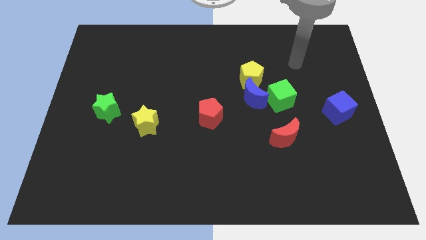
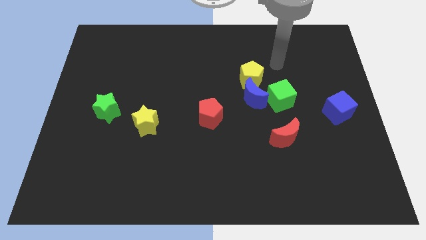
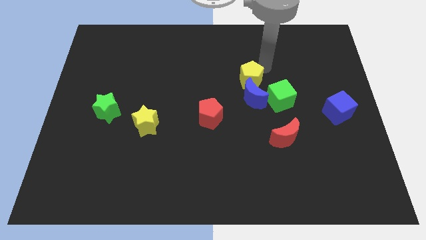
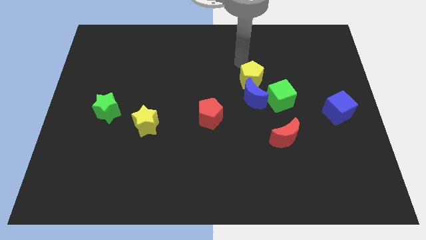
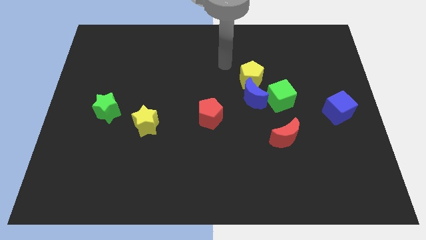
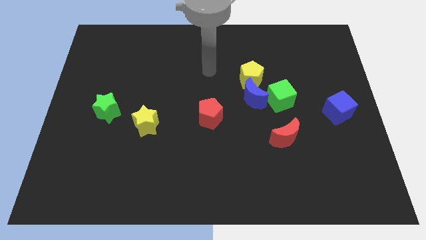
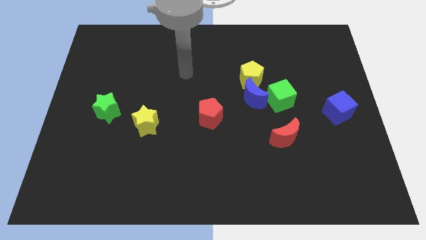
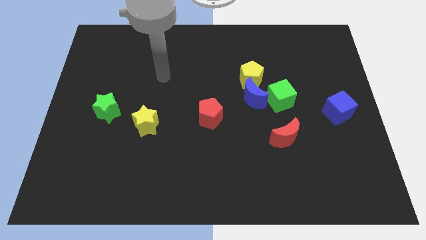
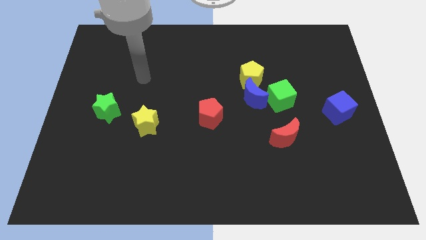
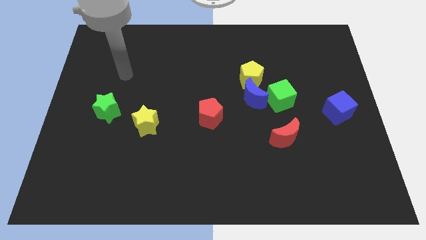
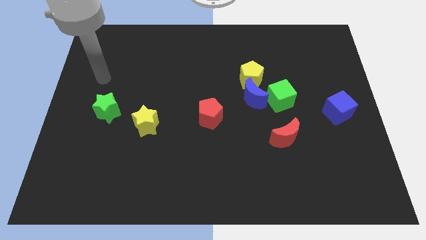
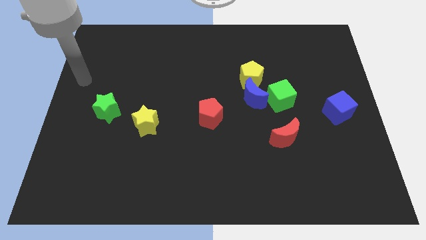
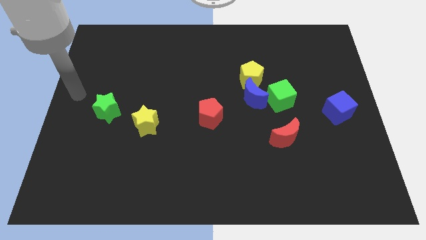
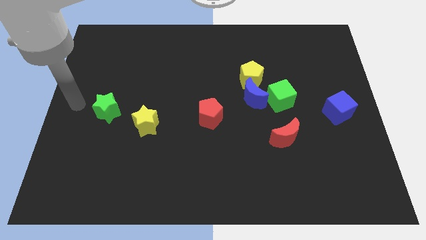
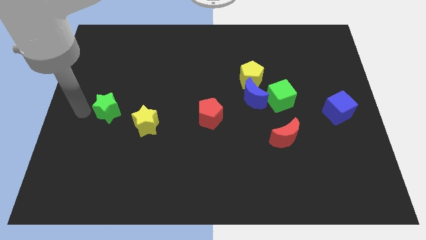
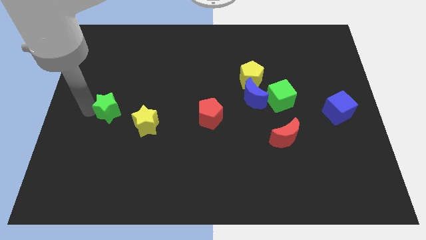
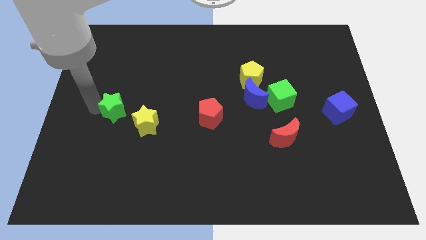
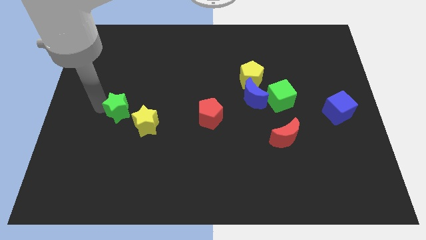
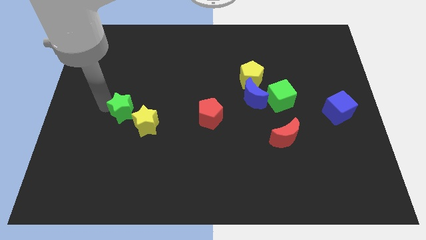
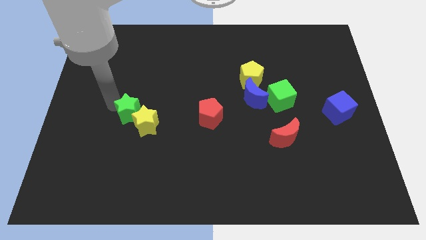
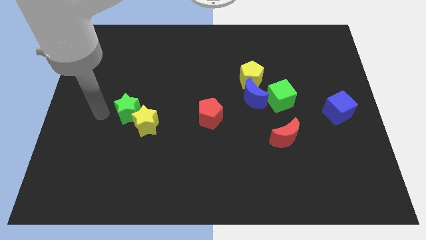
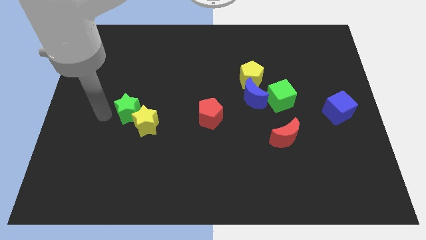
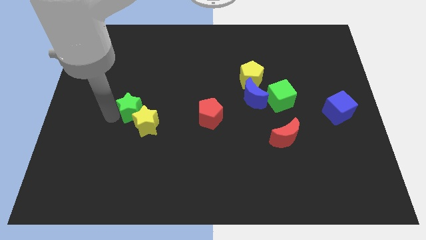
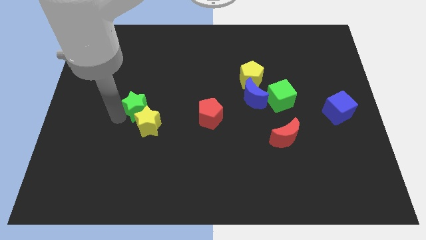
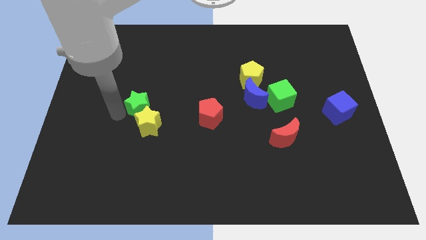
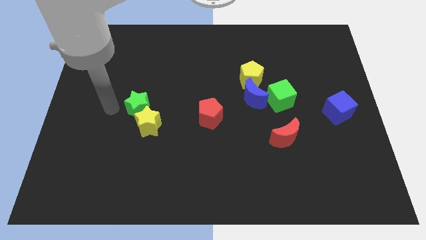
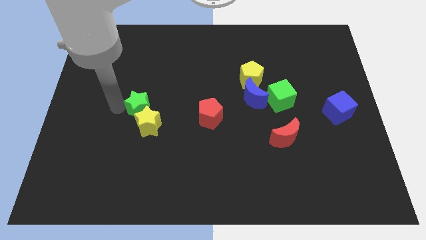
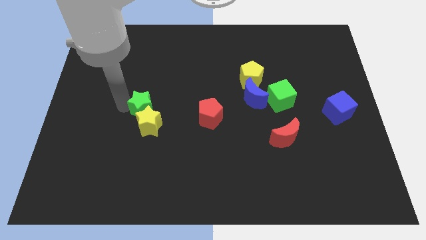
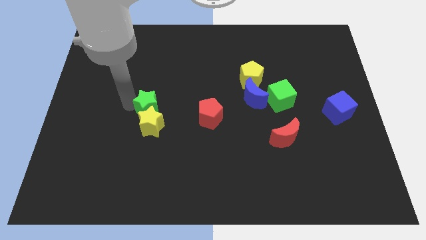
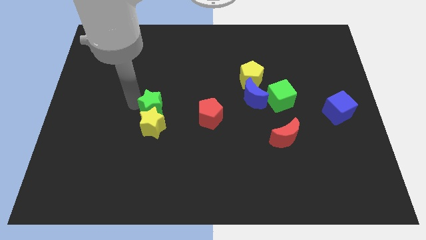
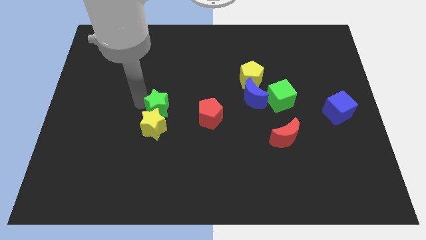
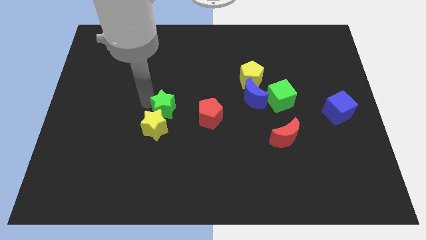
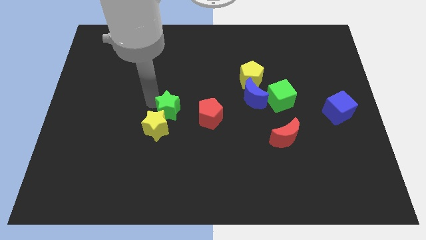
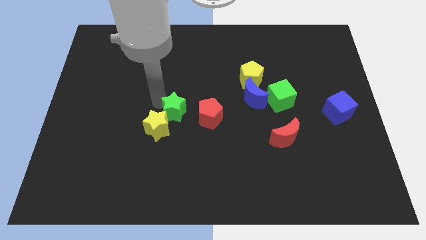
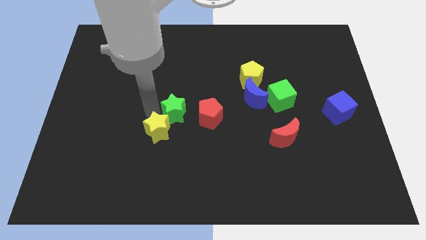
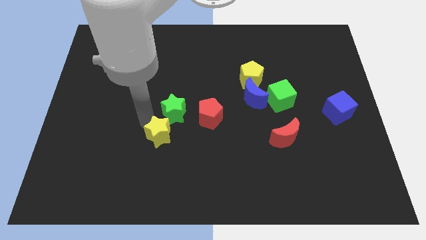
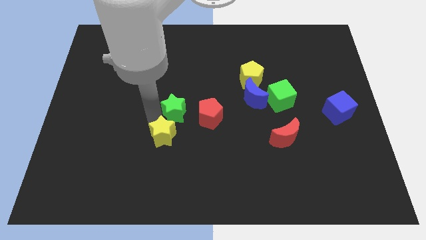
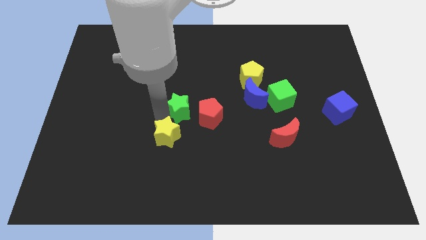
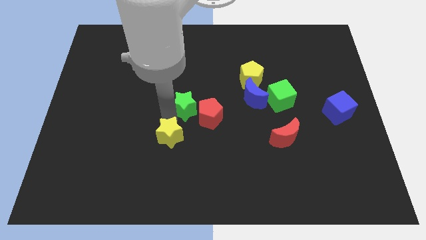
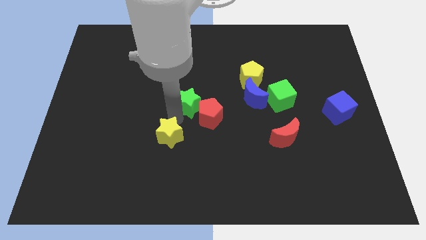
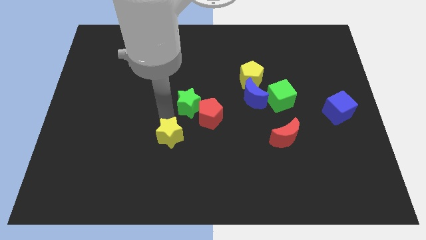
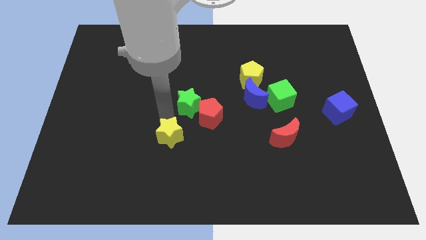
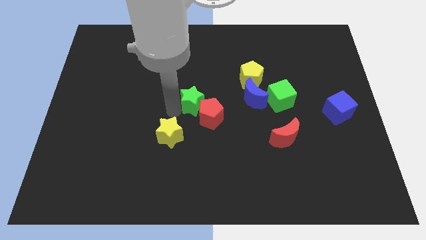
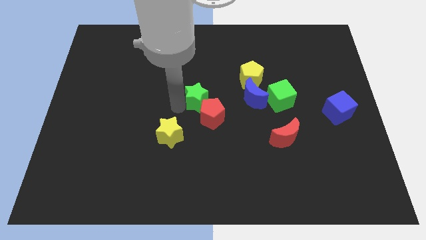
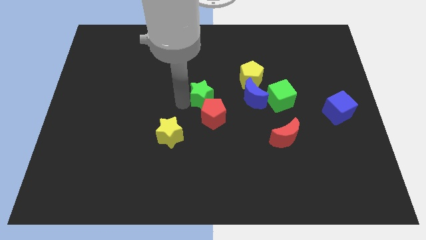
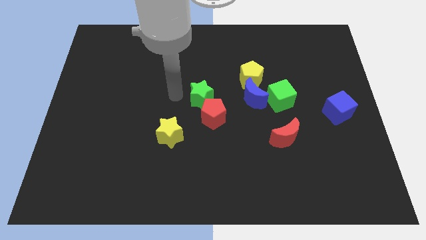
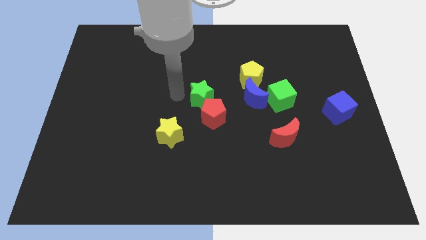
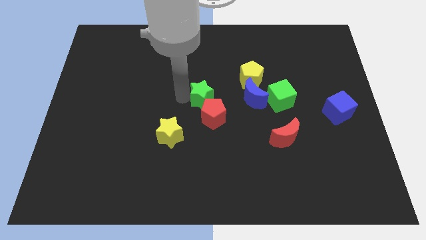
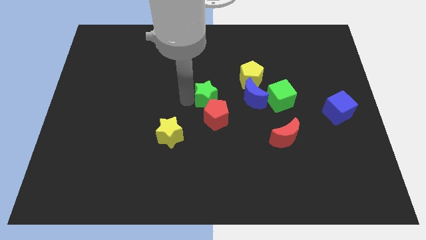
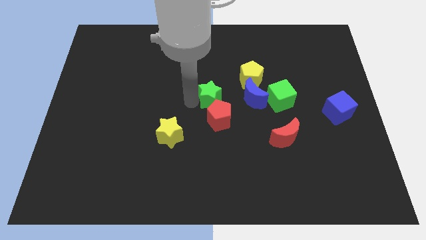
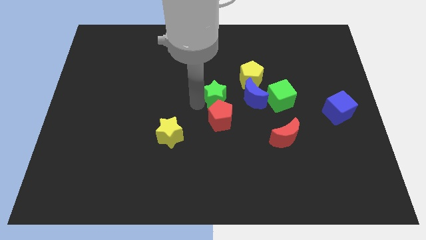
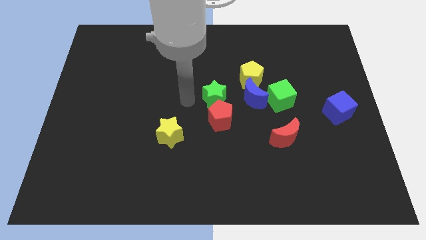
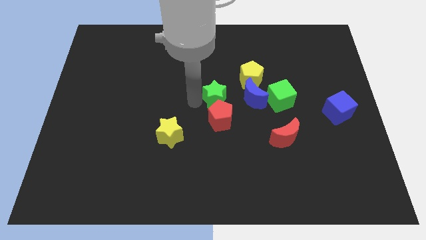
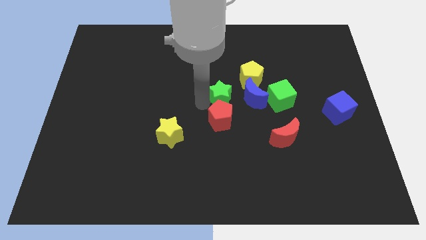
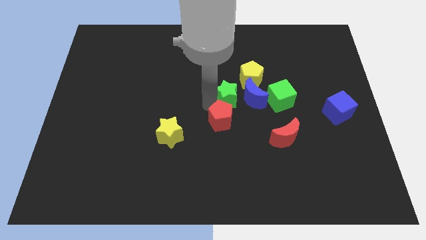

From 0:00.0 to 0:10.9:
push the green star next to the blue moon

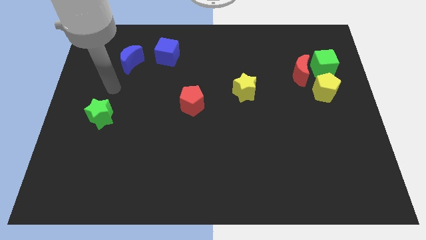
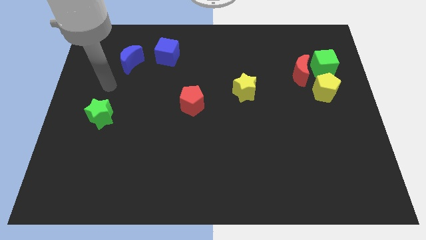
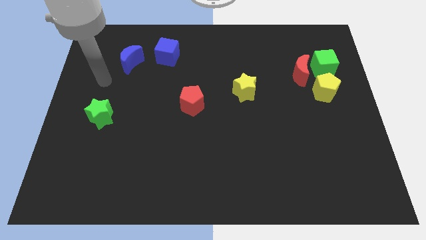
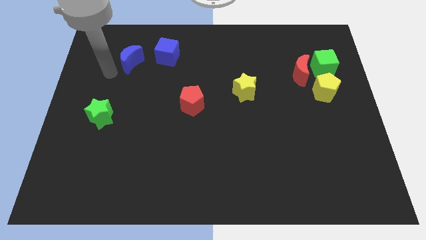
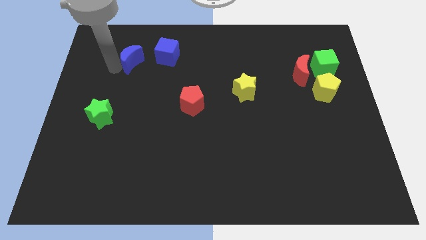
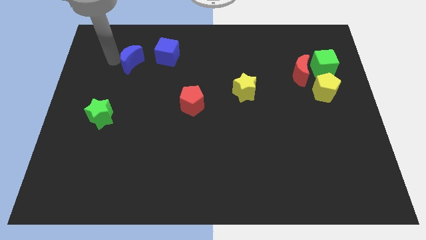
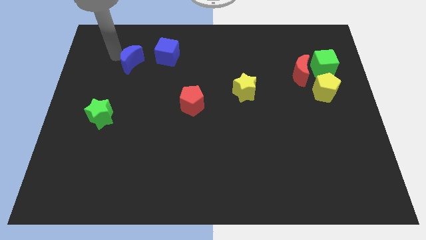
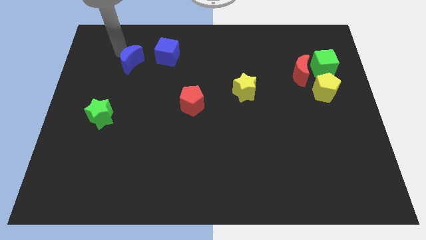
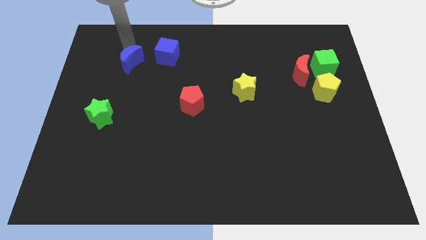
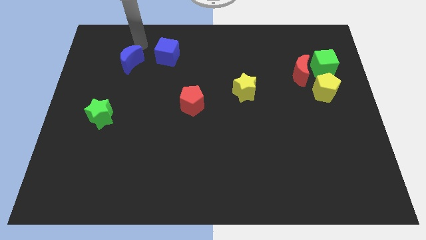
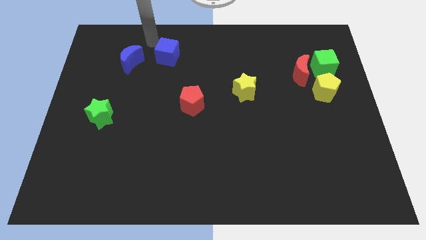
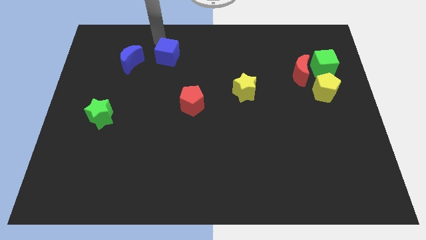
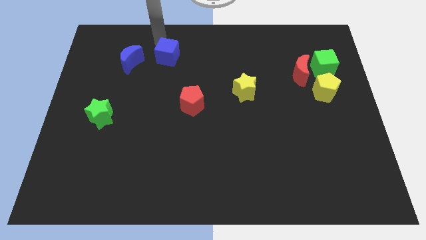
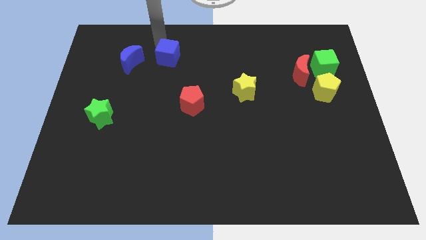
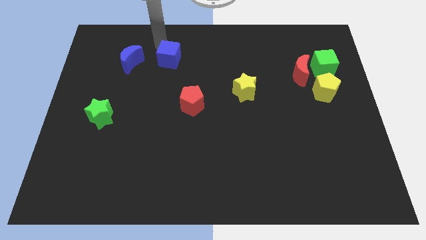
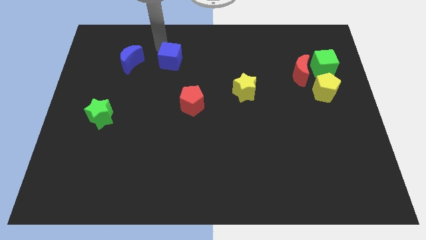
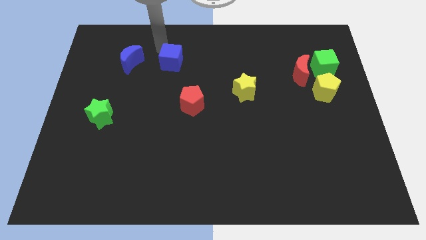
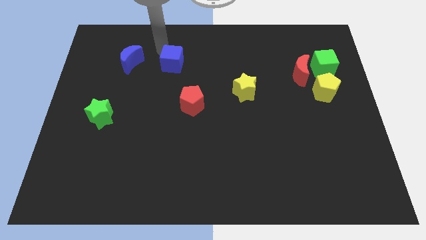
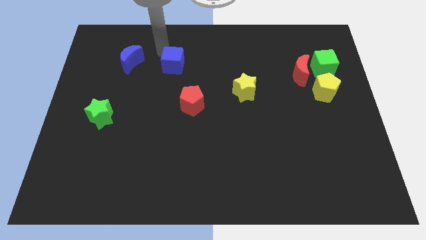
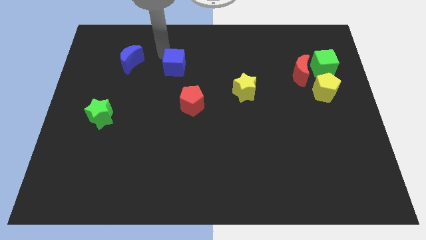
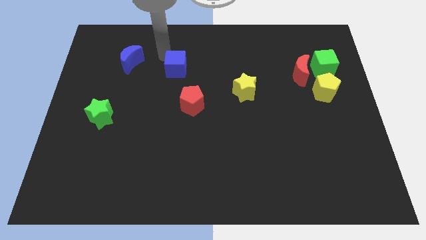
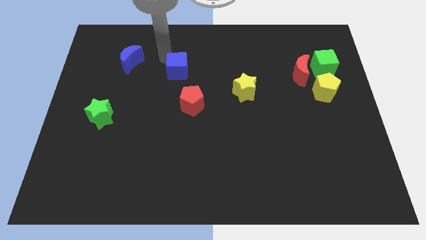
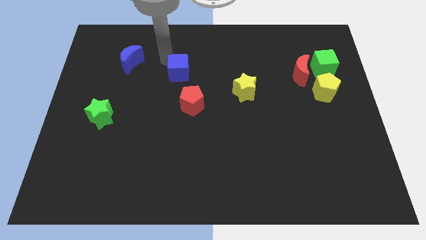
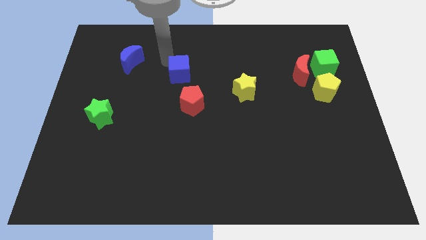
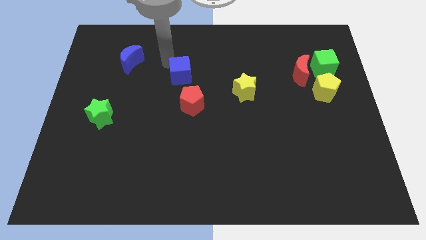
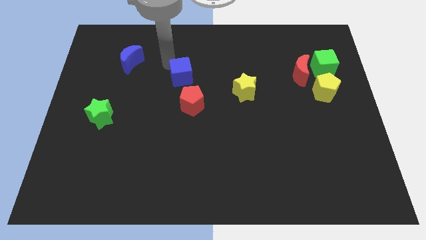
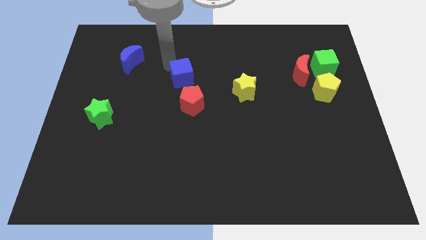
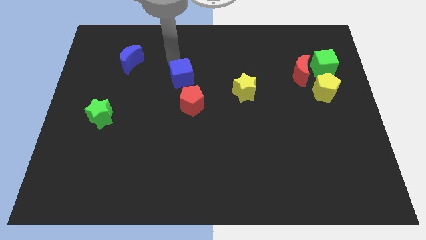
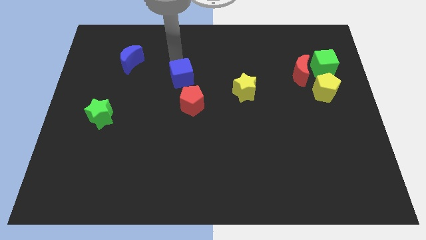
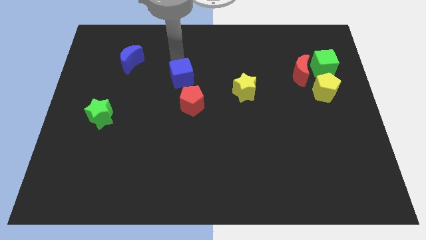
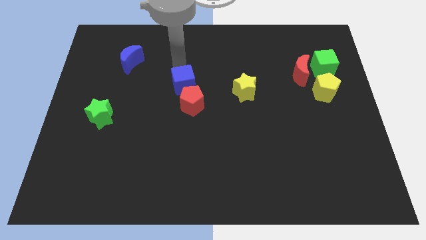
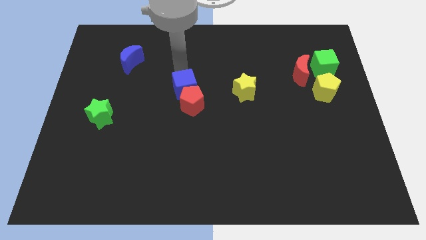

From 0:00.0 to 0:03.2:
put the blue cube towards the red pentagon
